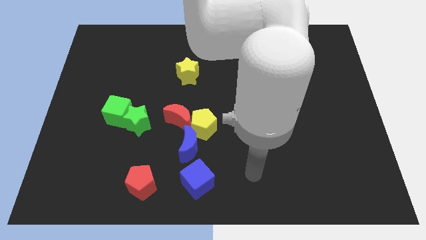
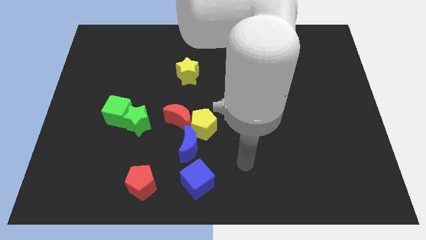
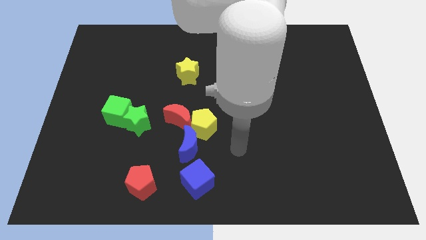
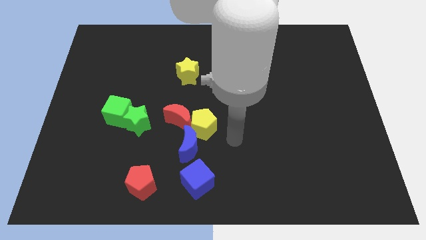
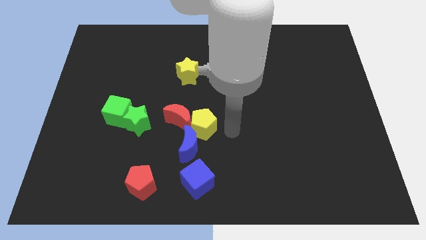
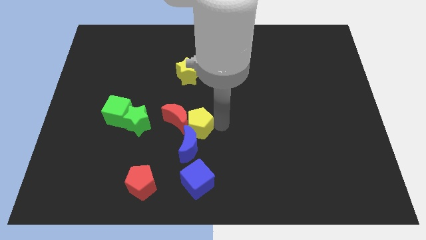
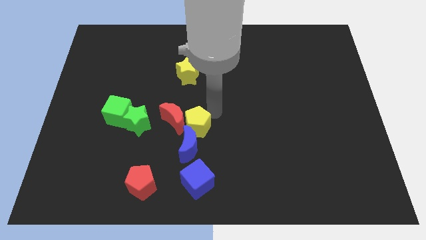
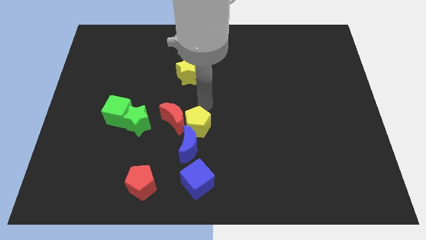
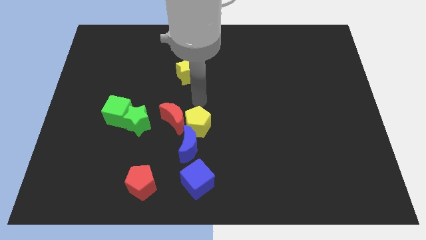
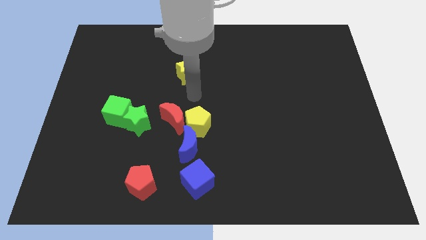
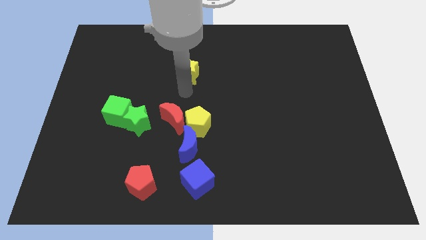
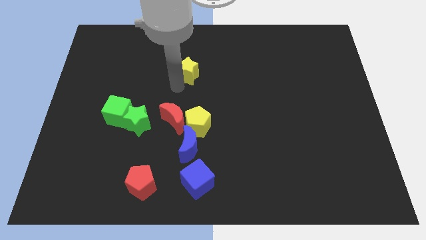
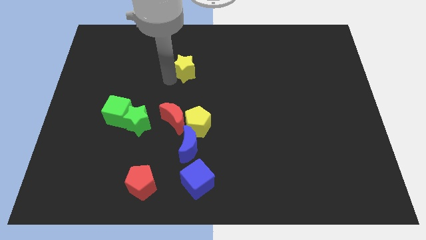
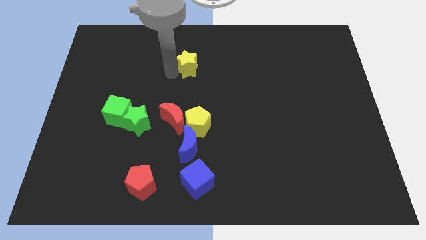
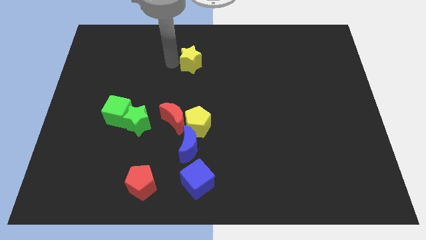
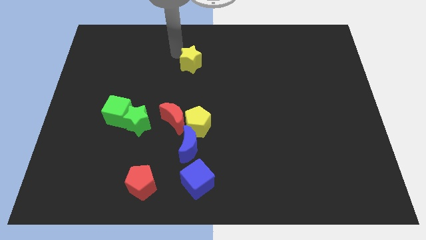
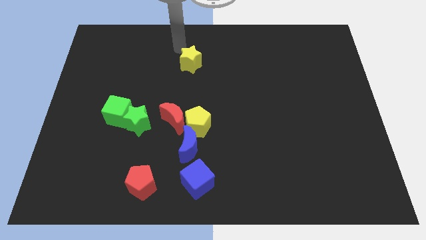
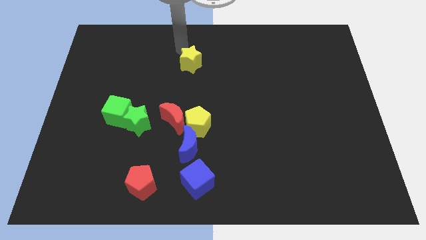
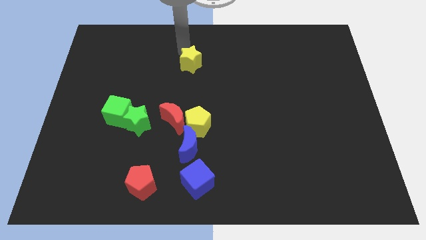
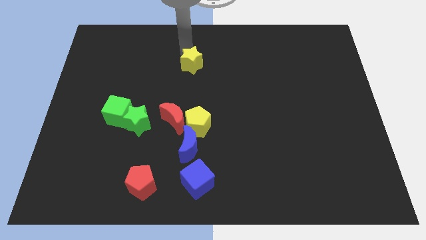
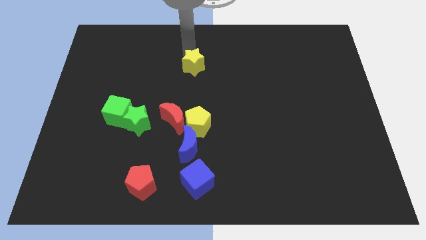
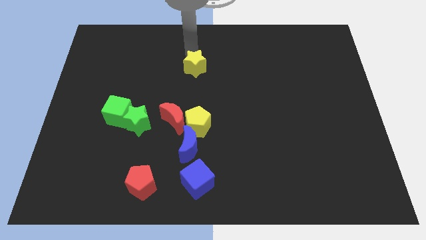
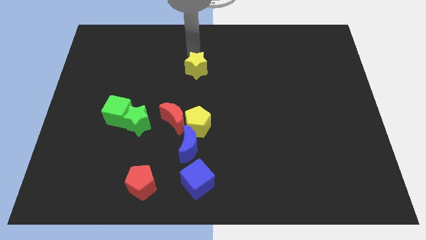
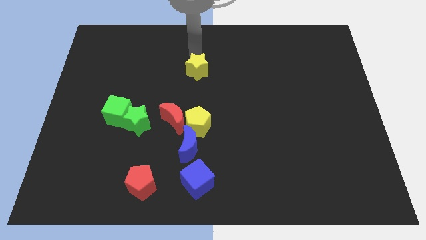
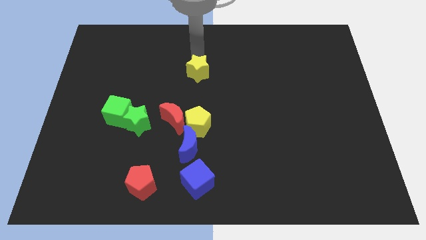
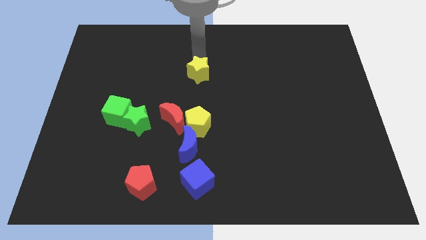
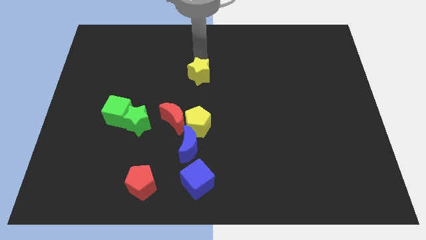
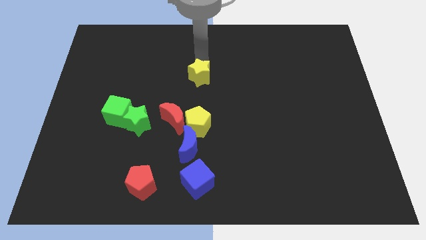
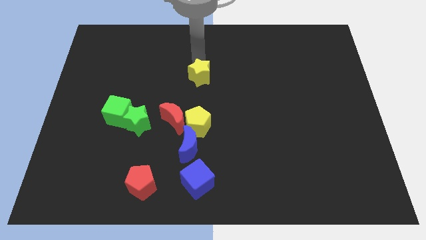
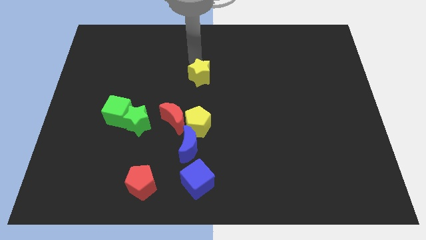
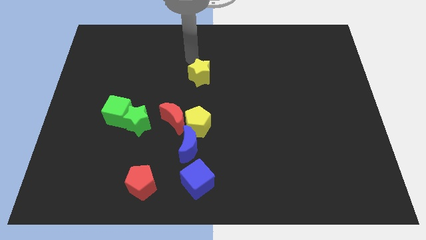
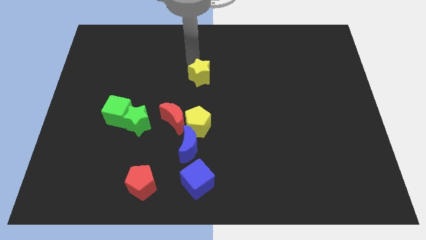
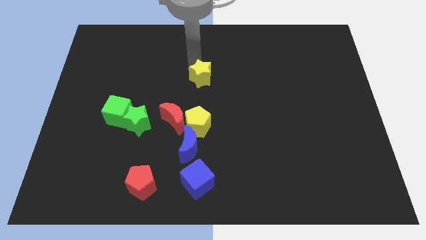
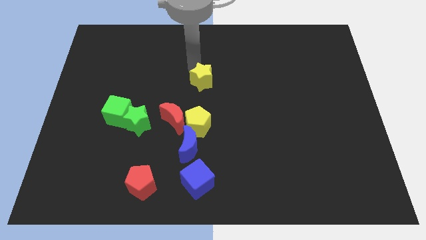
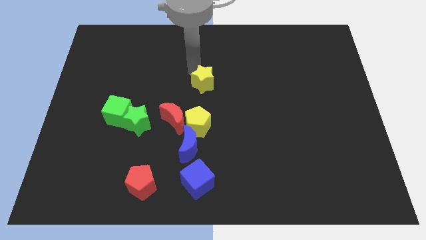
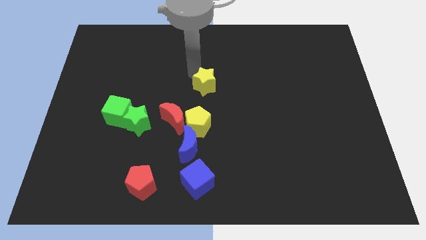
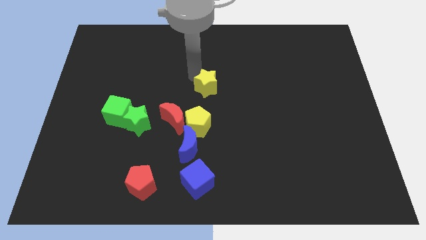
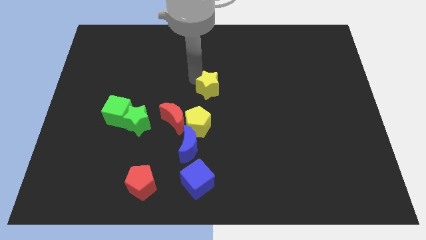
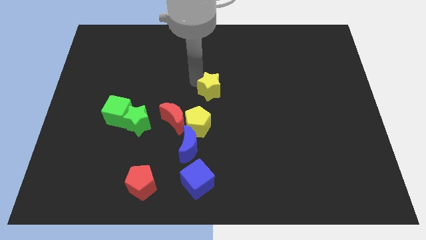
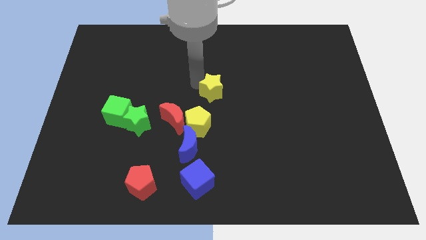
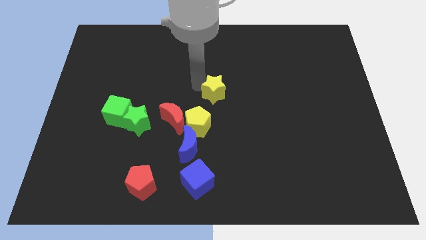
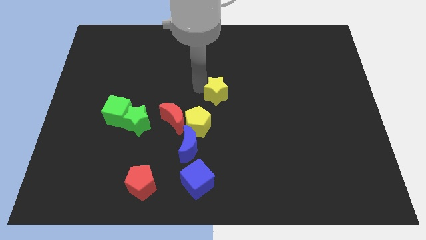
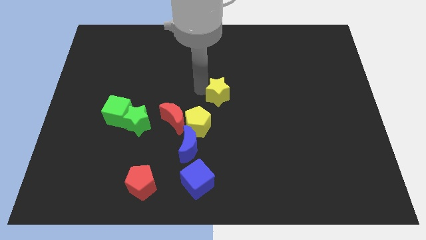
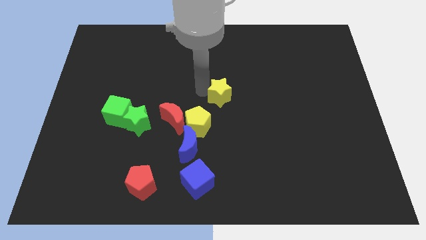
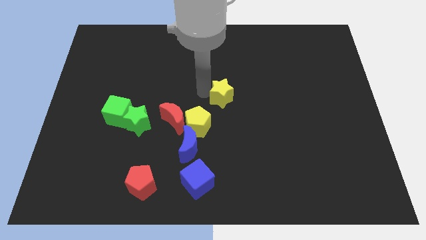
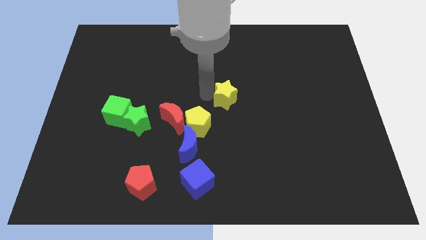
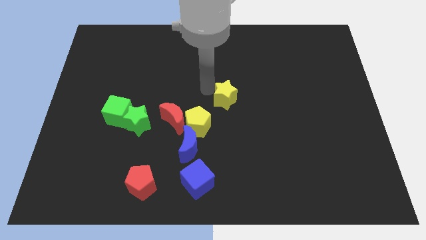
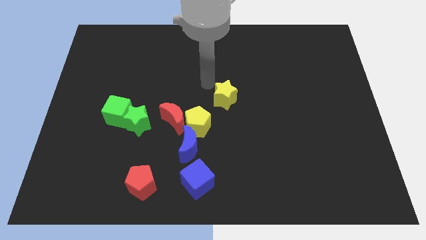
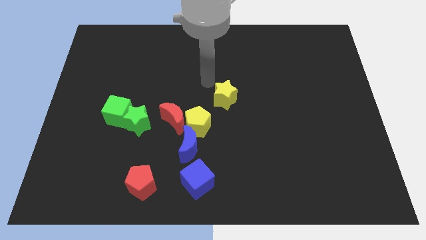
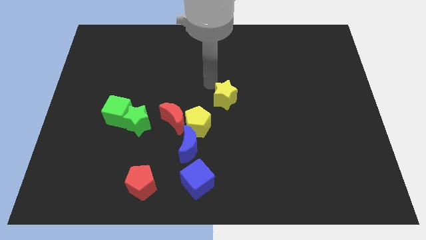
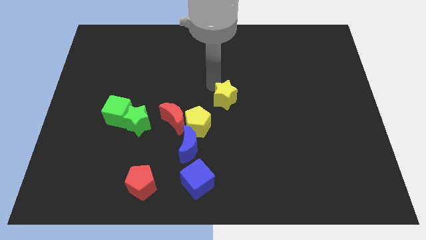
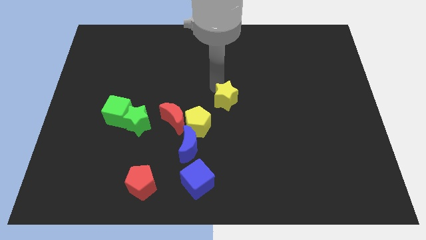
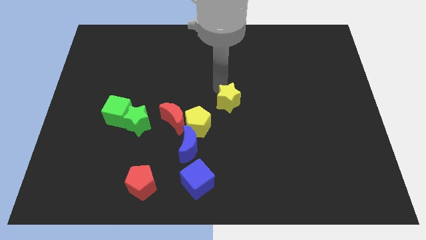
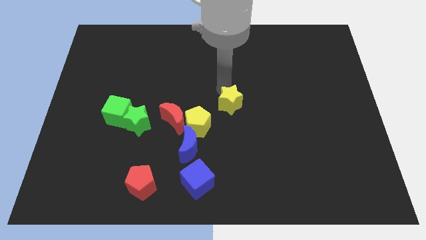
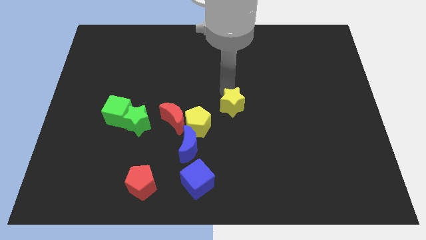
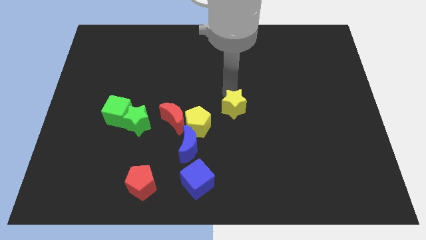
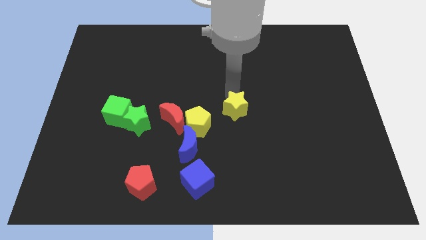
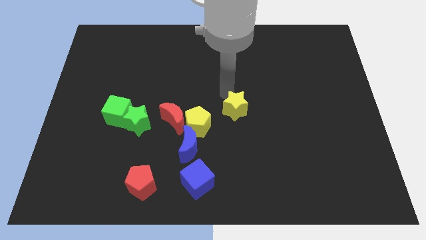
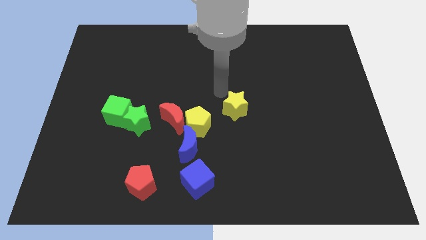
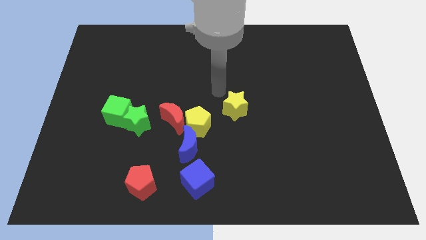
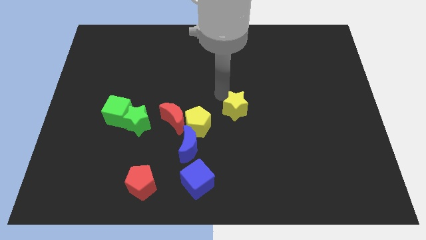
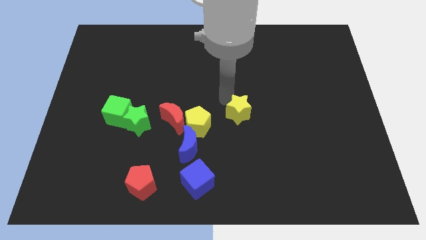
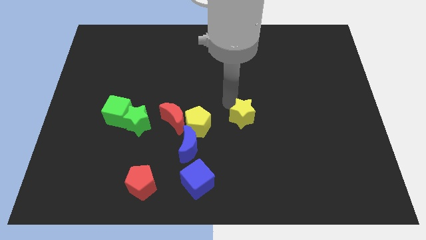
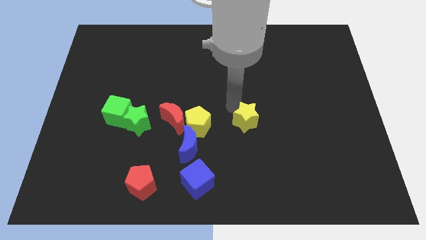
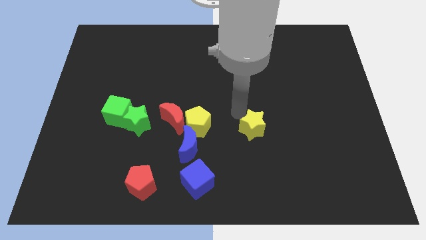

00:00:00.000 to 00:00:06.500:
push the yellow star down and right diagonally

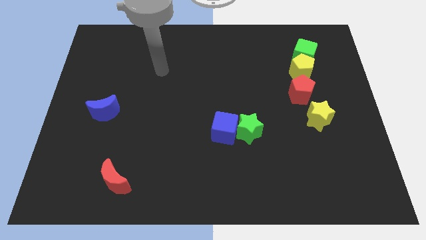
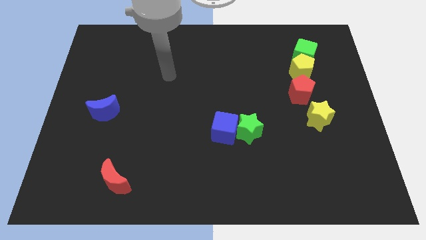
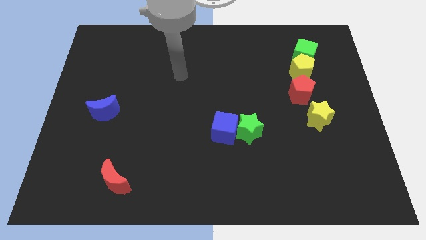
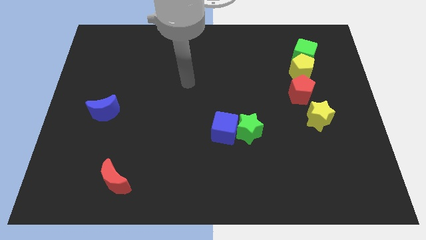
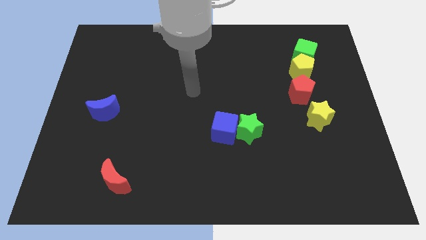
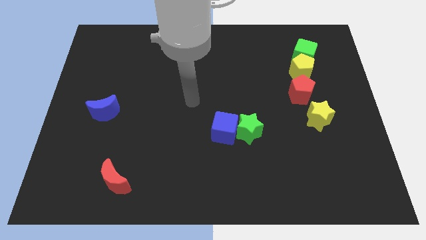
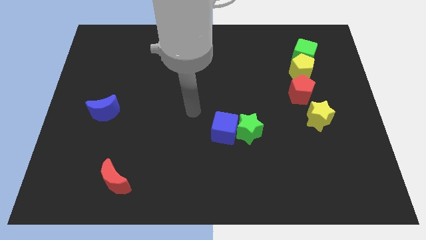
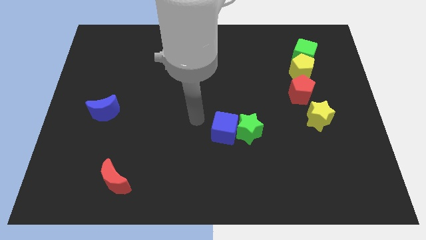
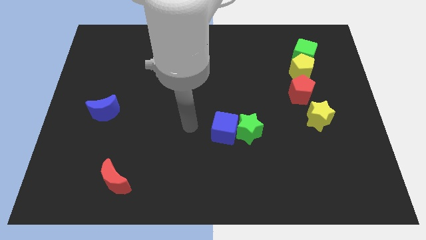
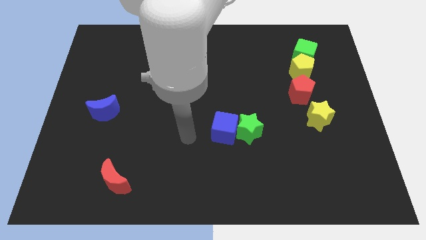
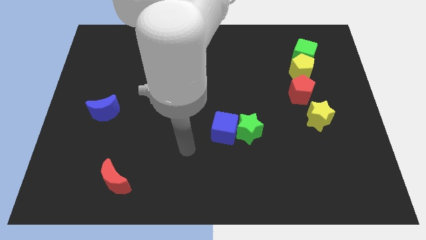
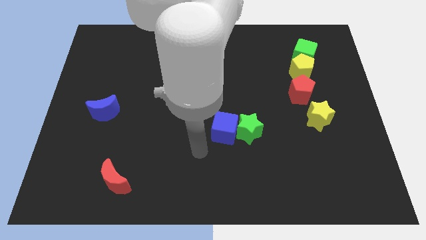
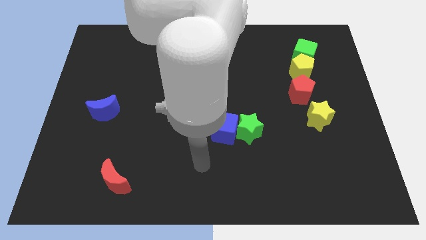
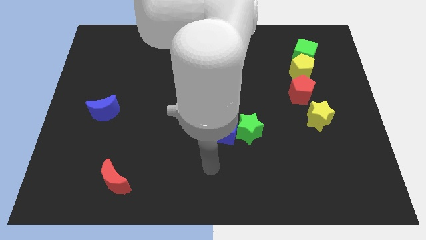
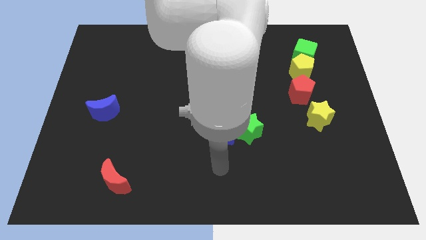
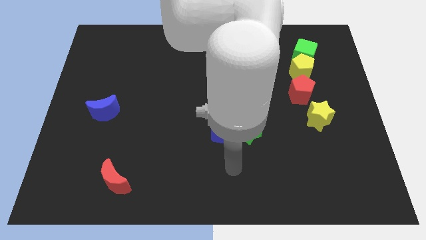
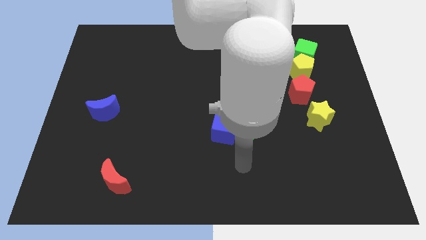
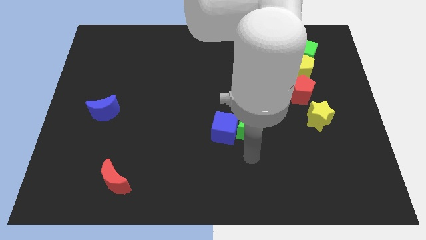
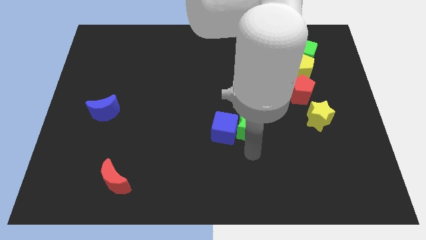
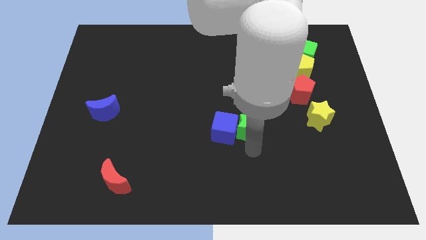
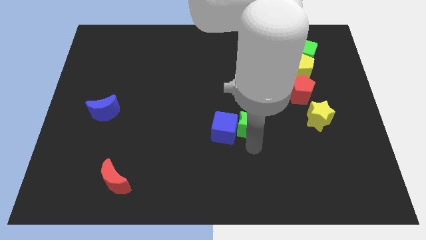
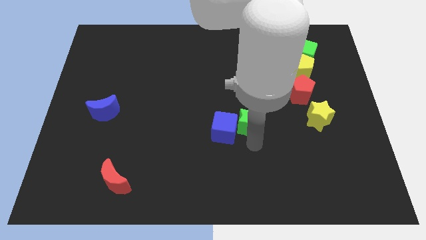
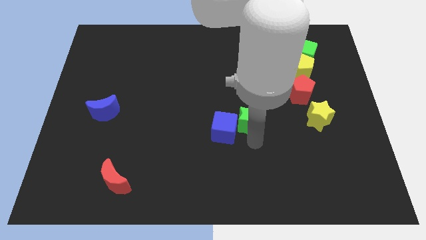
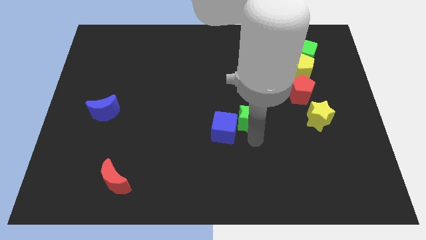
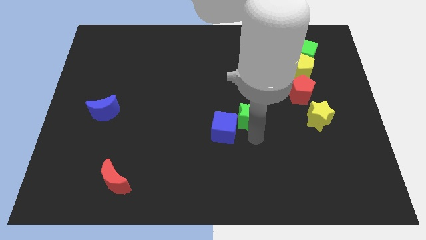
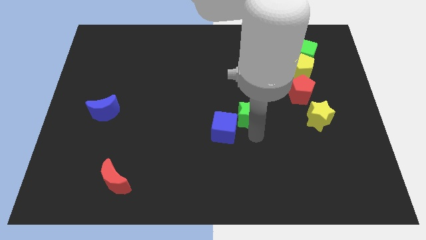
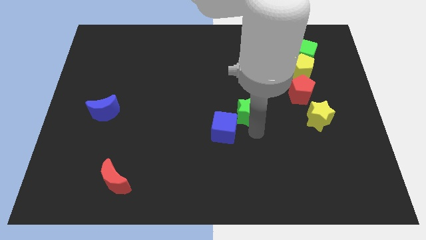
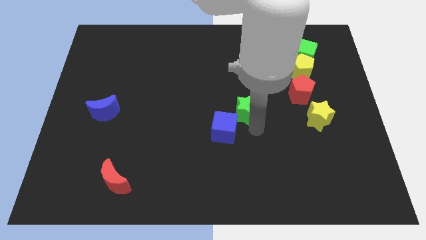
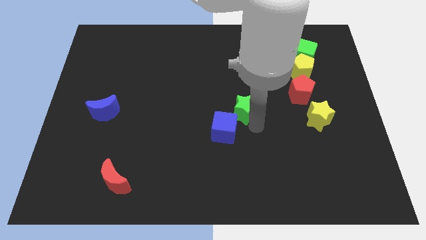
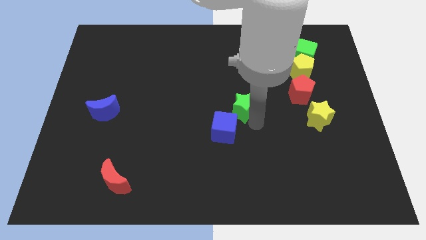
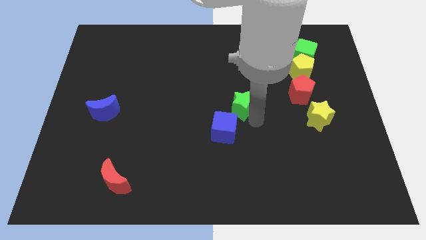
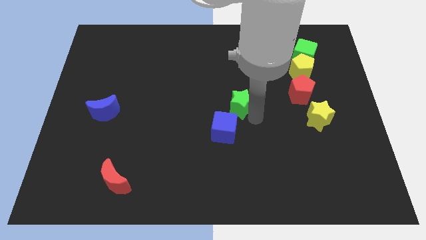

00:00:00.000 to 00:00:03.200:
slide the green star slightly upwards
